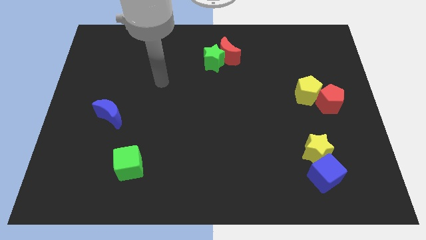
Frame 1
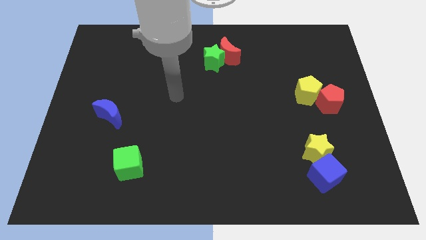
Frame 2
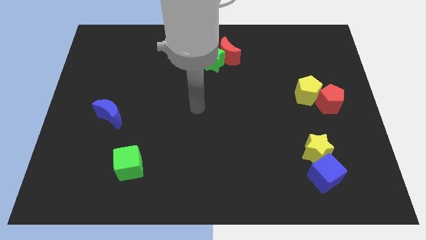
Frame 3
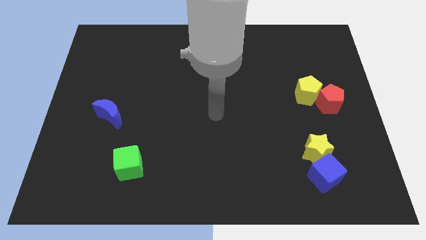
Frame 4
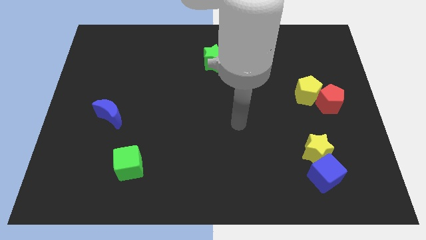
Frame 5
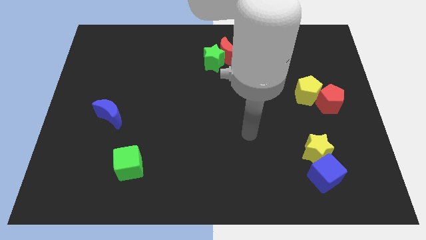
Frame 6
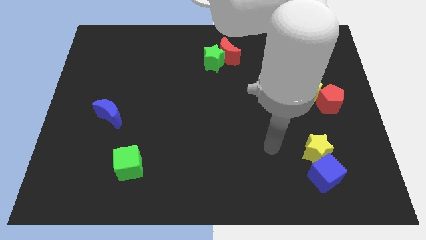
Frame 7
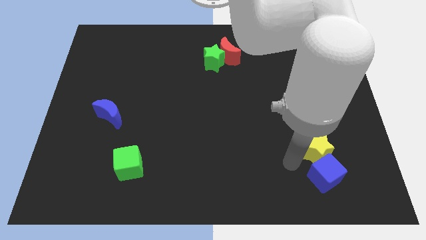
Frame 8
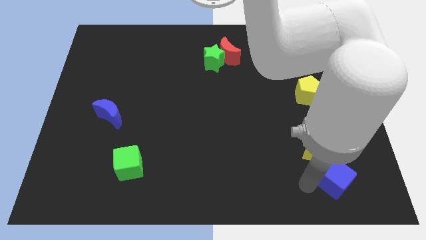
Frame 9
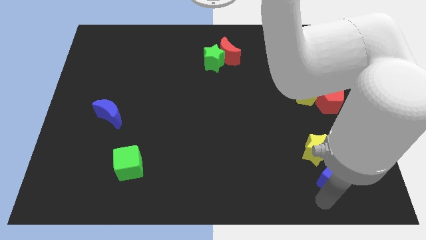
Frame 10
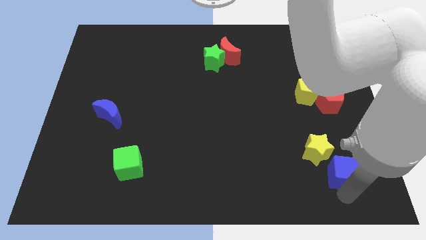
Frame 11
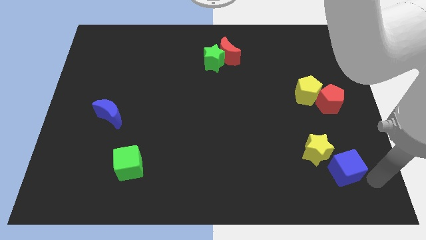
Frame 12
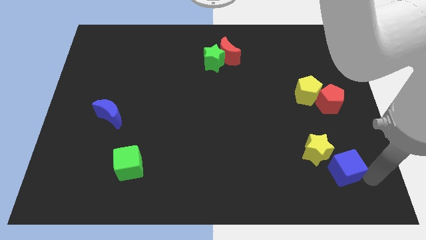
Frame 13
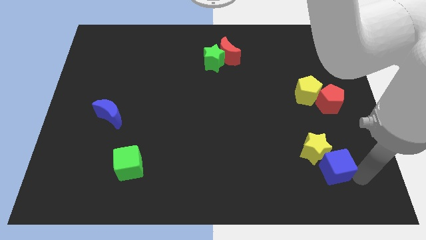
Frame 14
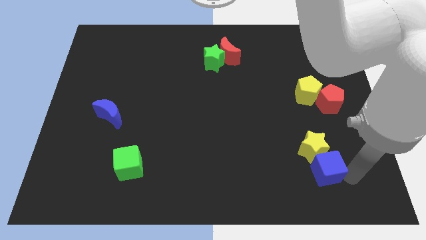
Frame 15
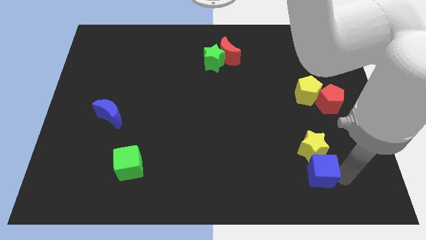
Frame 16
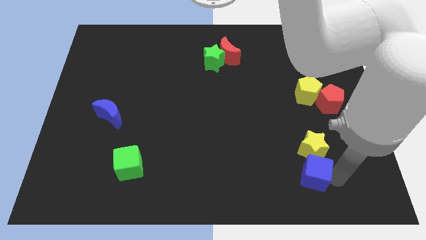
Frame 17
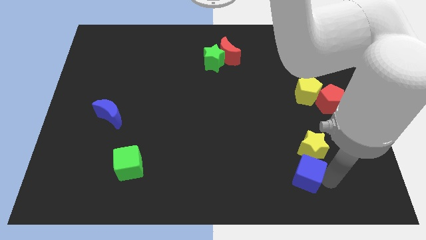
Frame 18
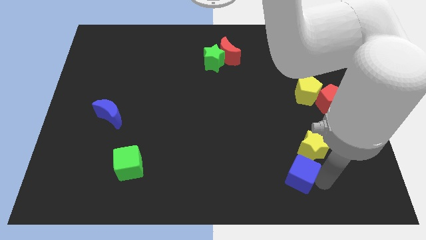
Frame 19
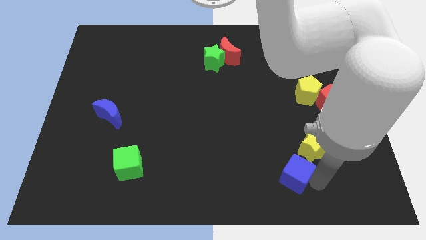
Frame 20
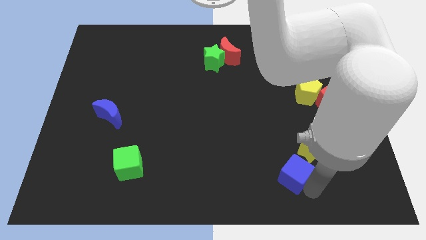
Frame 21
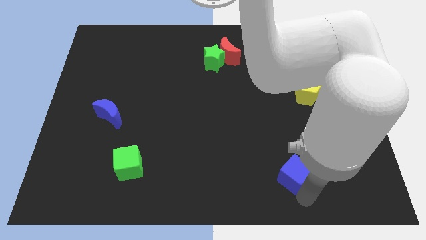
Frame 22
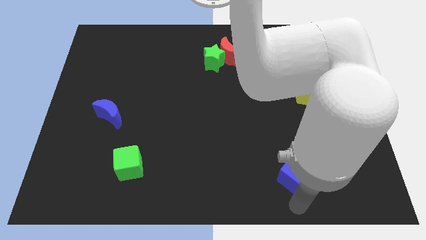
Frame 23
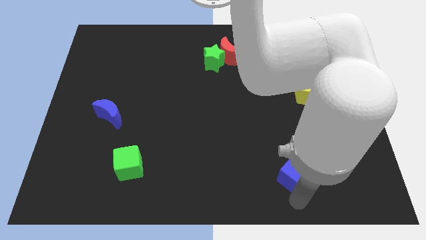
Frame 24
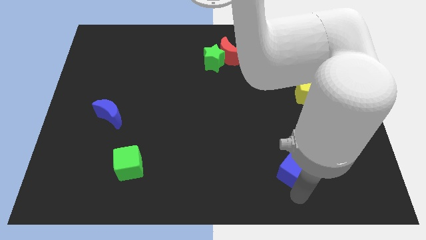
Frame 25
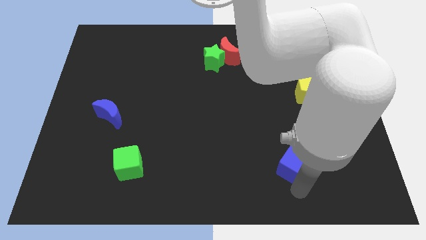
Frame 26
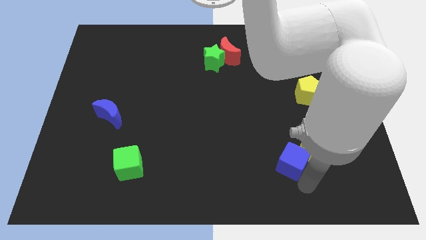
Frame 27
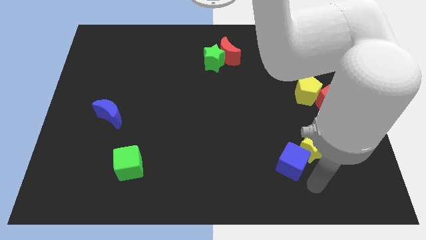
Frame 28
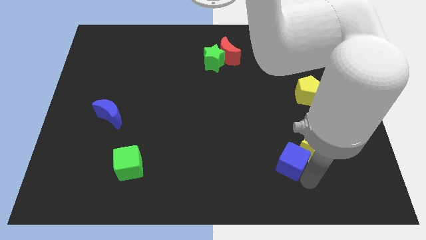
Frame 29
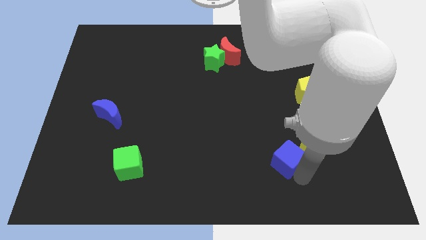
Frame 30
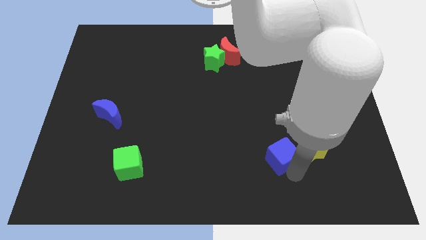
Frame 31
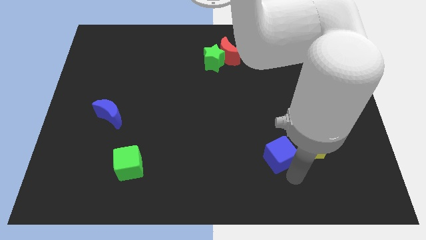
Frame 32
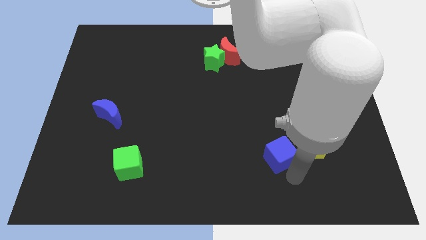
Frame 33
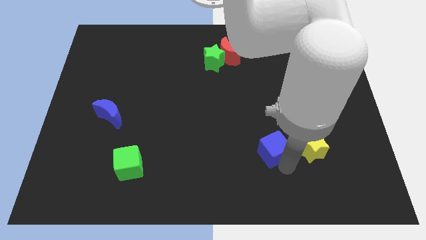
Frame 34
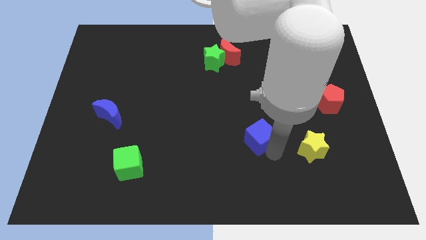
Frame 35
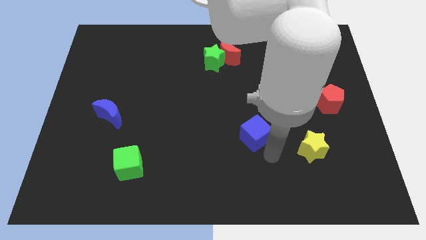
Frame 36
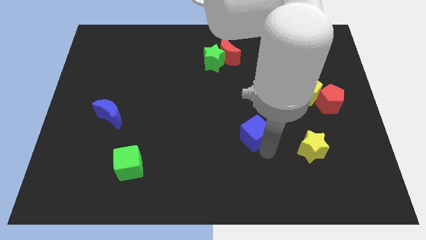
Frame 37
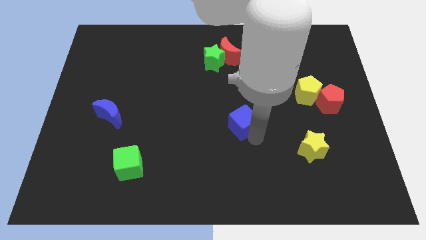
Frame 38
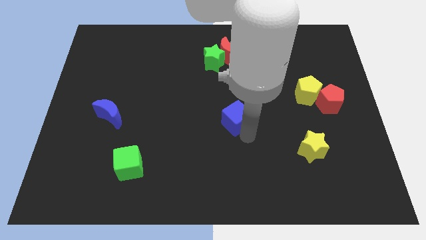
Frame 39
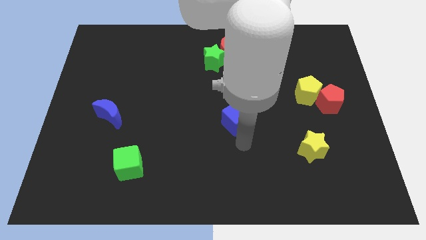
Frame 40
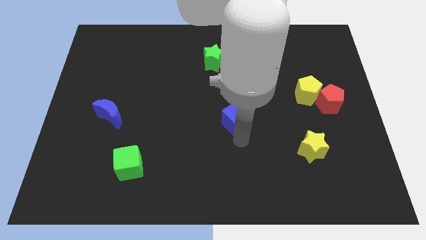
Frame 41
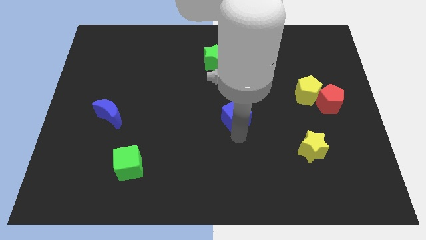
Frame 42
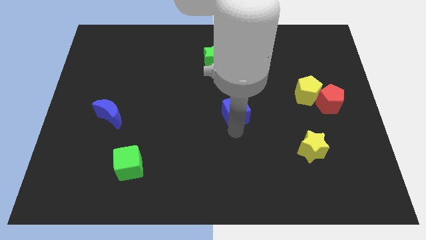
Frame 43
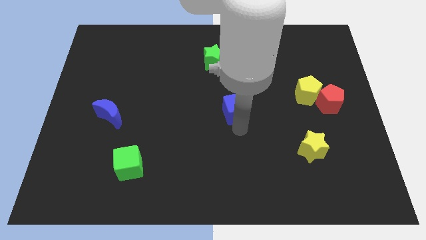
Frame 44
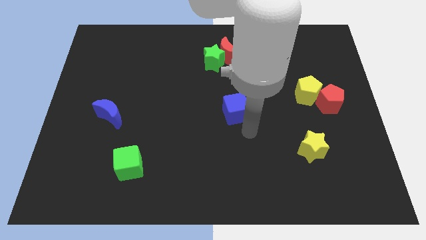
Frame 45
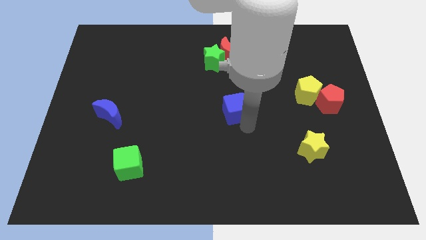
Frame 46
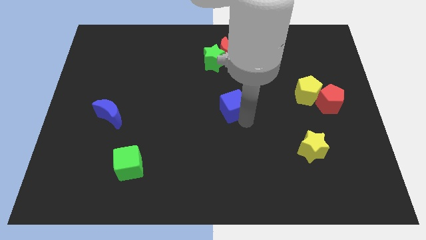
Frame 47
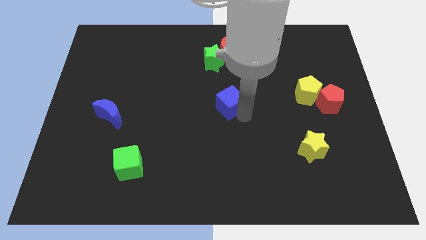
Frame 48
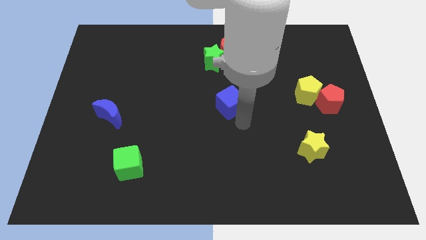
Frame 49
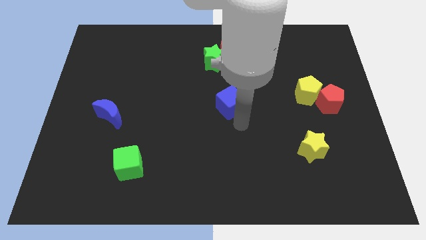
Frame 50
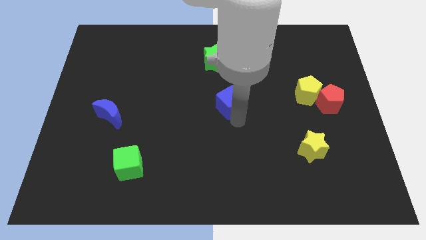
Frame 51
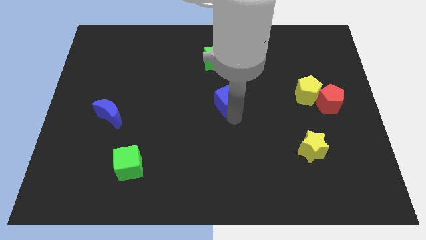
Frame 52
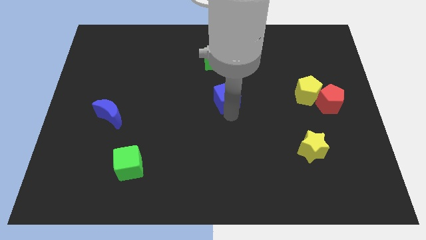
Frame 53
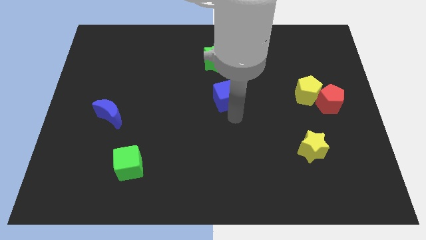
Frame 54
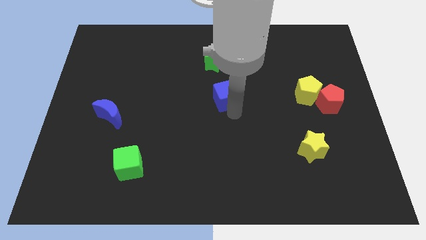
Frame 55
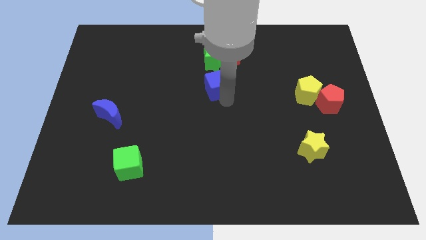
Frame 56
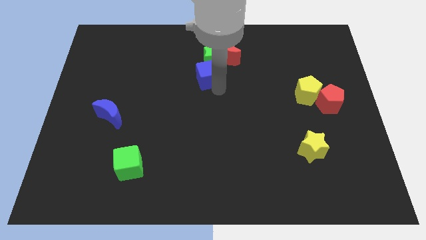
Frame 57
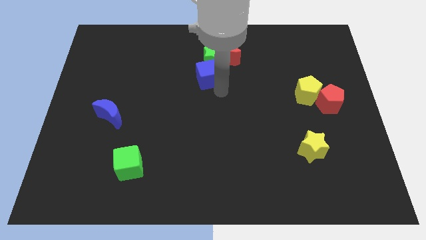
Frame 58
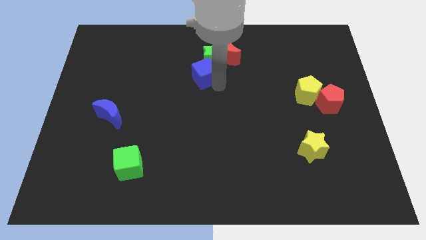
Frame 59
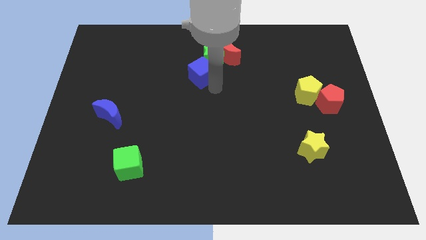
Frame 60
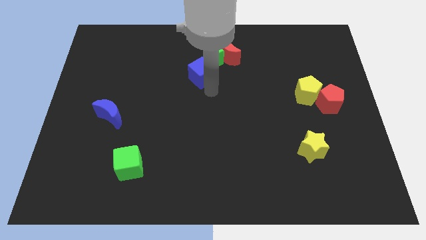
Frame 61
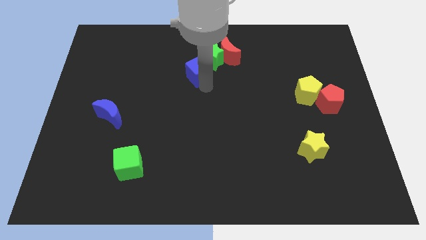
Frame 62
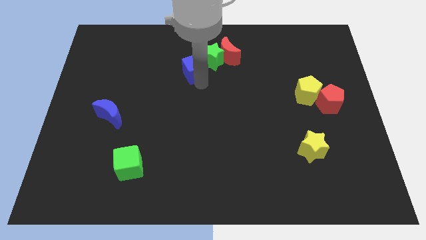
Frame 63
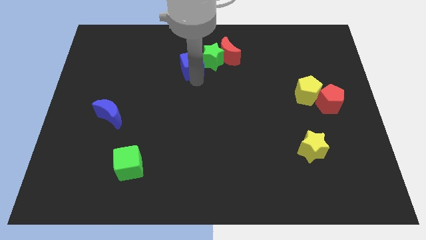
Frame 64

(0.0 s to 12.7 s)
slide the blue cube just left of the red moon
